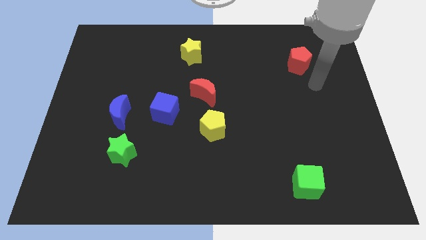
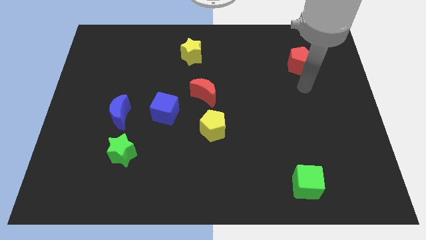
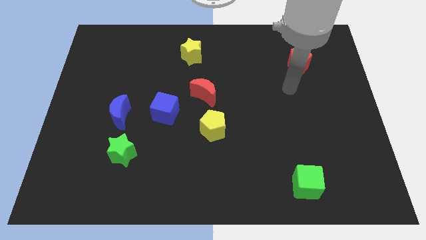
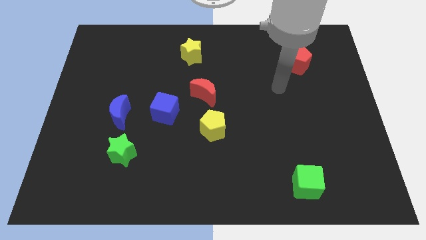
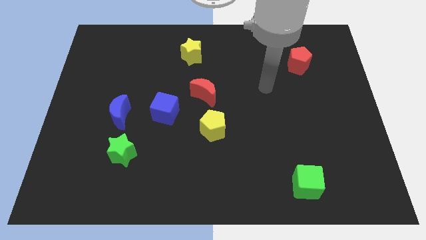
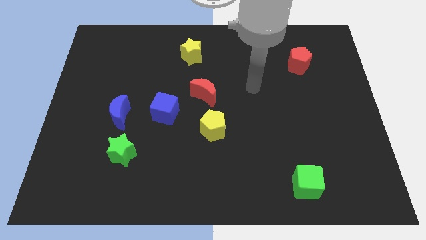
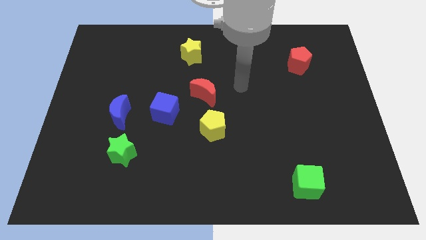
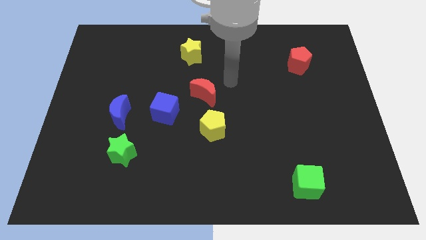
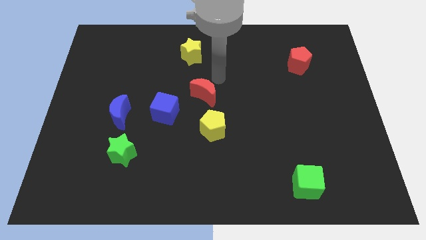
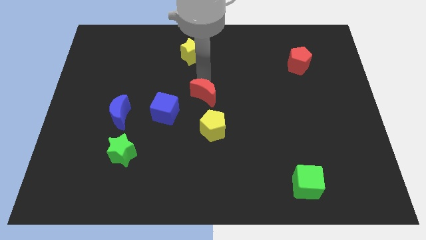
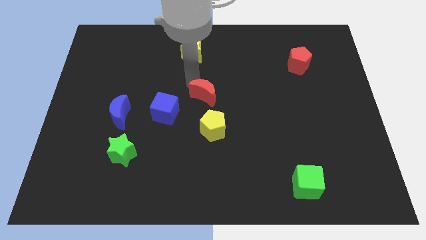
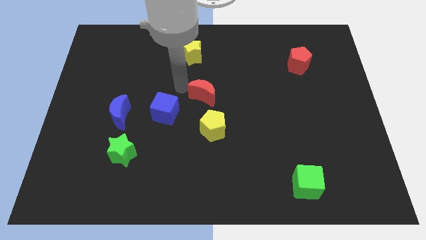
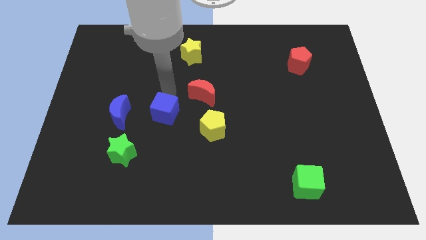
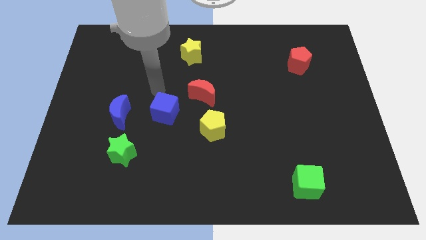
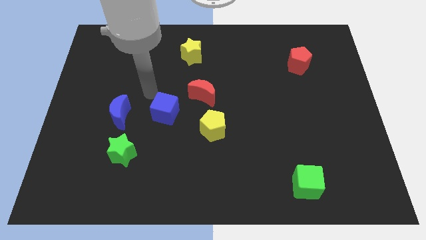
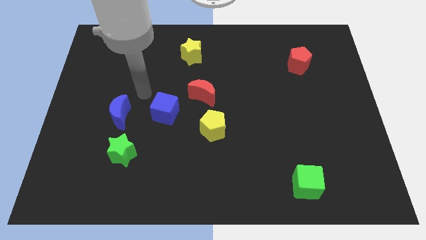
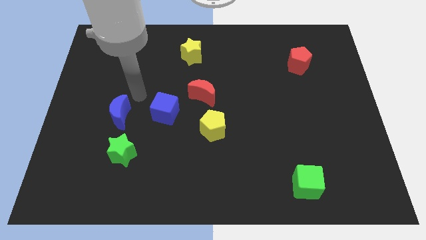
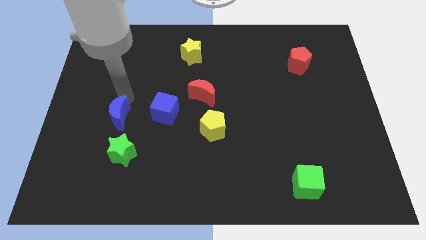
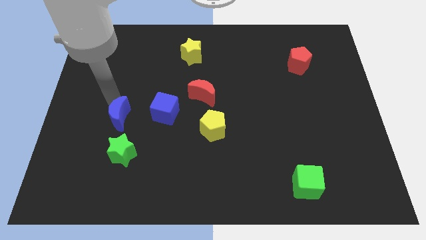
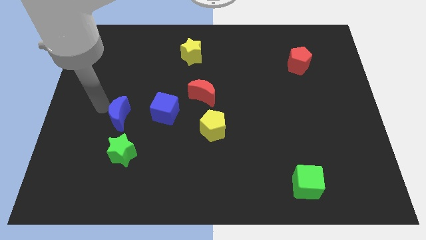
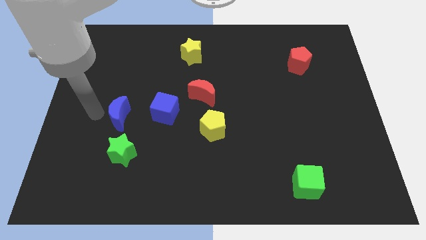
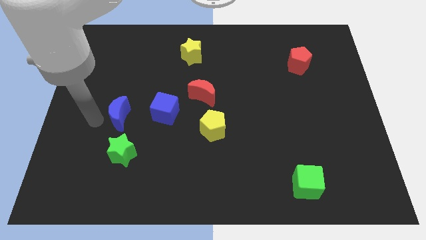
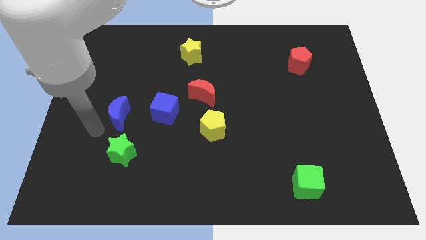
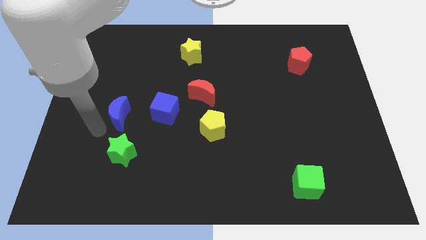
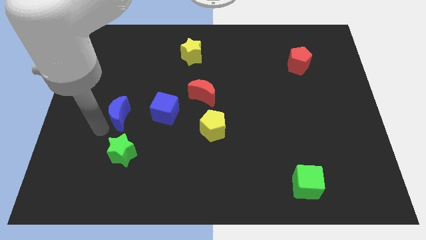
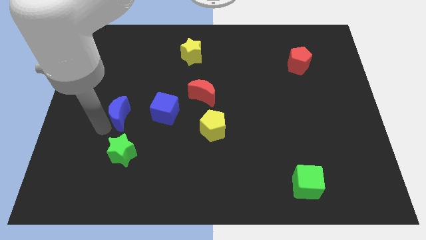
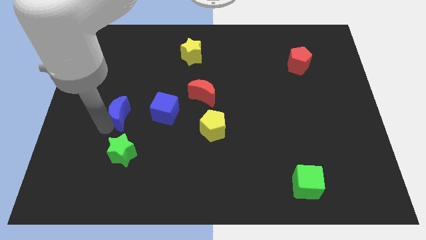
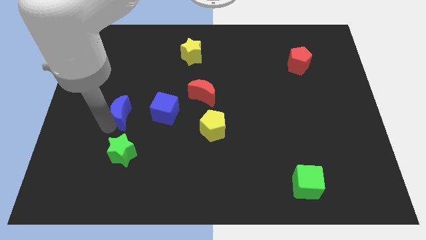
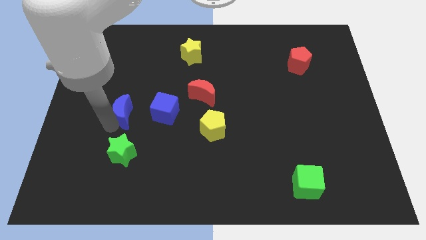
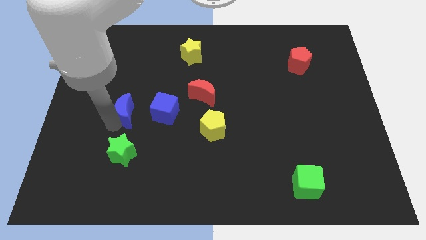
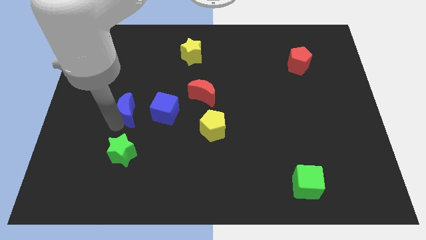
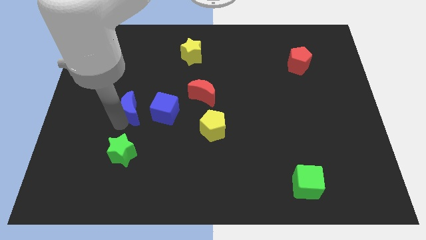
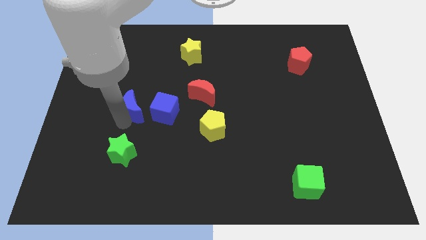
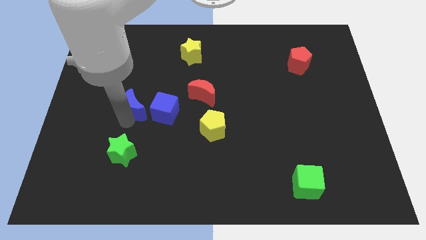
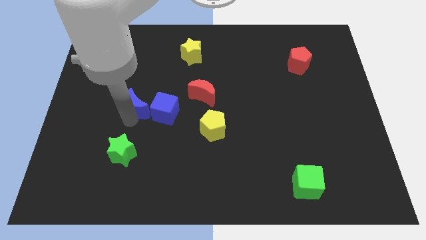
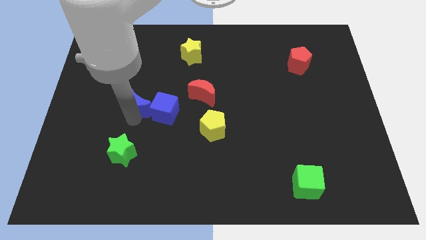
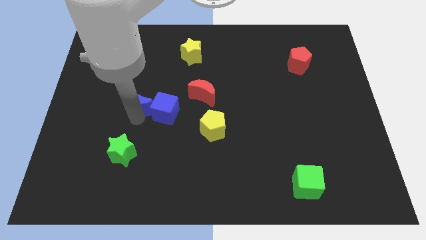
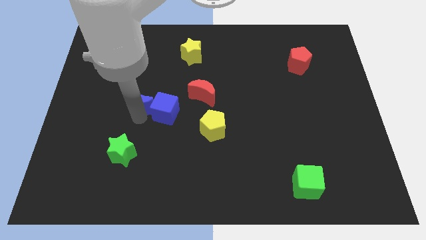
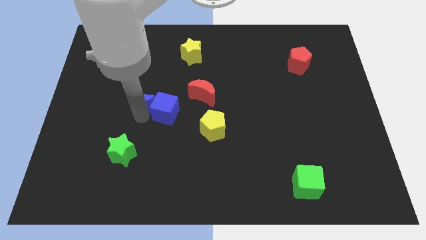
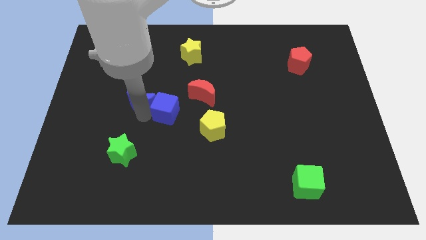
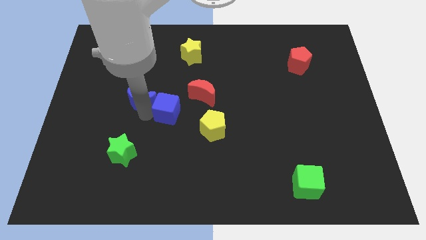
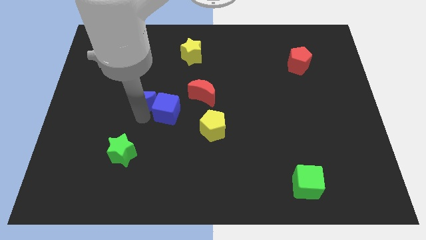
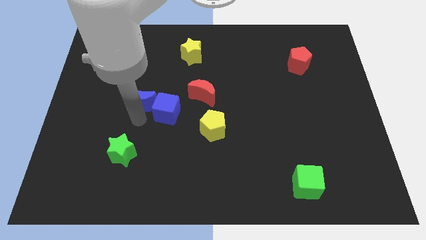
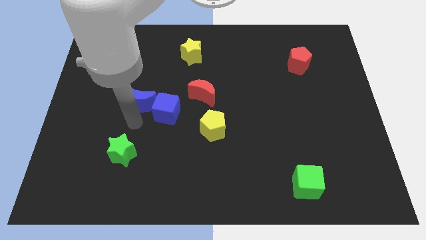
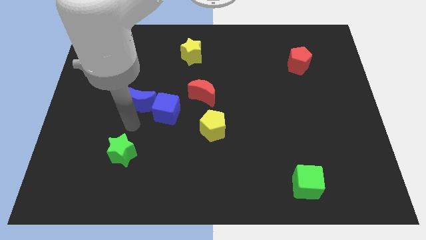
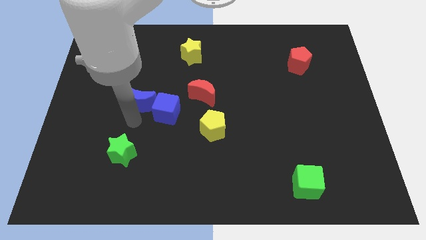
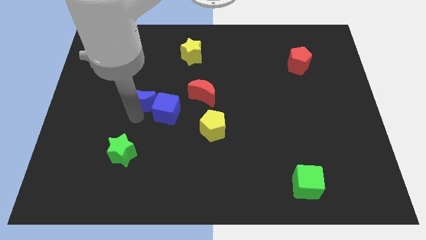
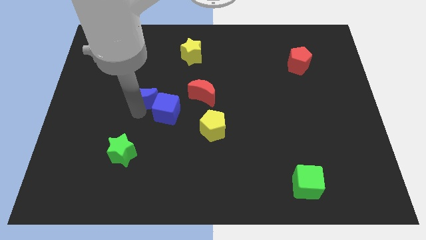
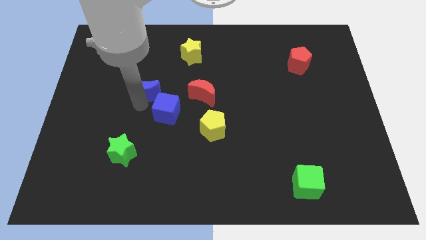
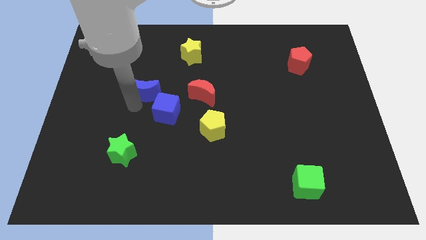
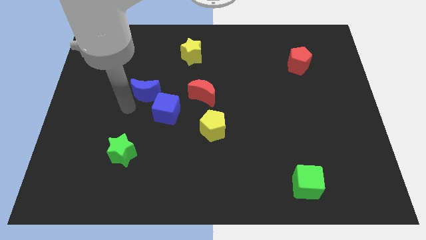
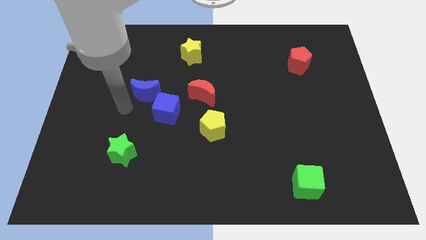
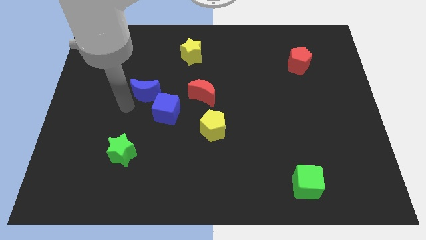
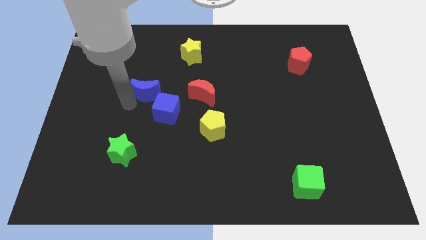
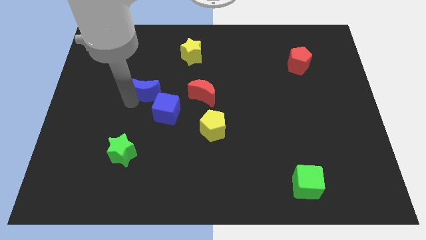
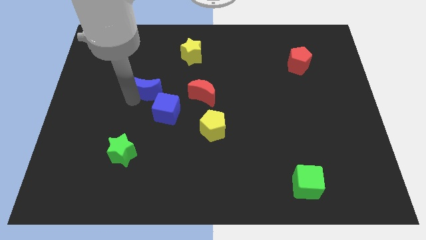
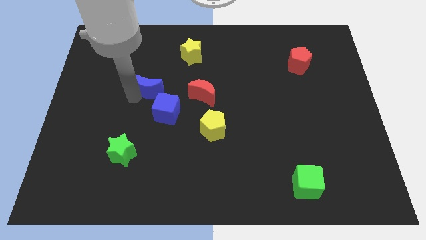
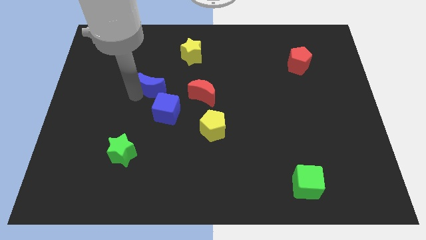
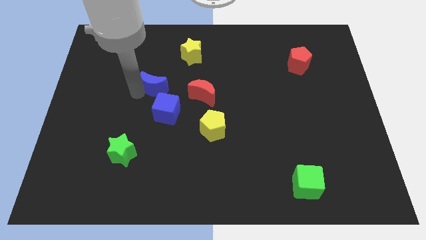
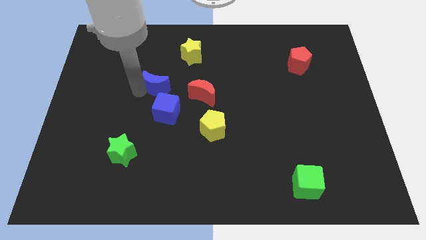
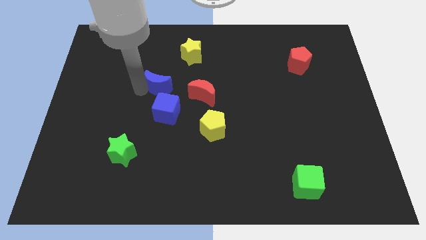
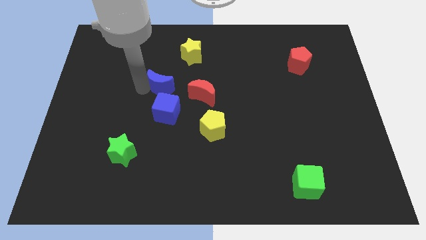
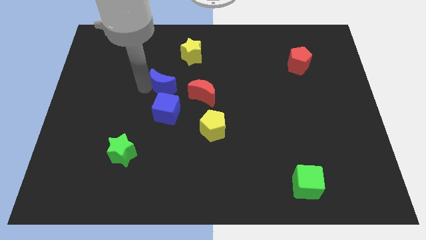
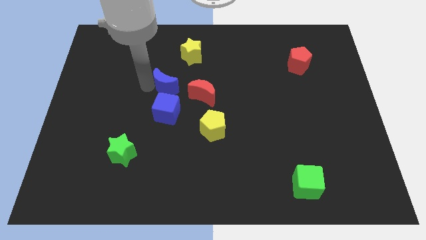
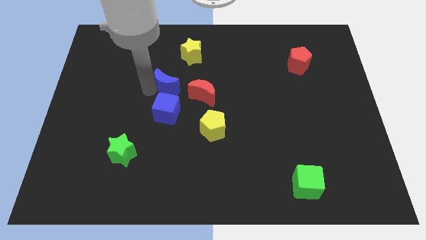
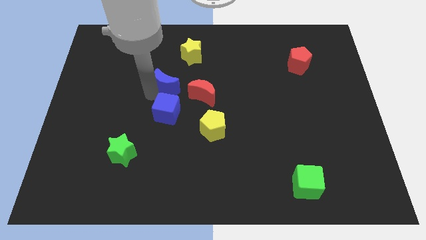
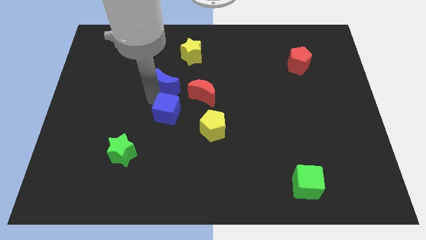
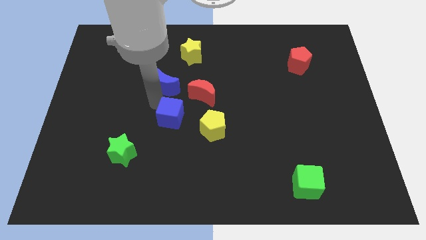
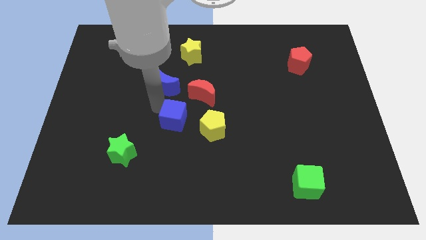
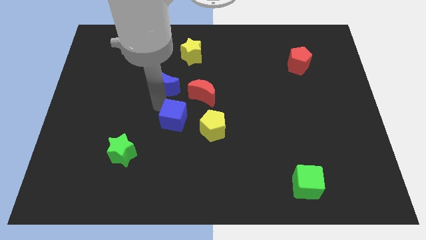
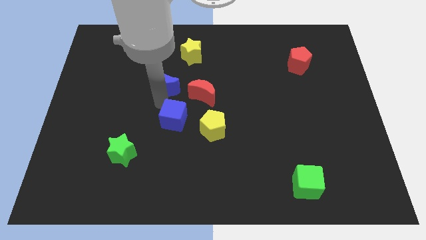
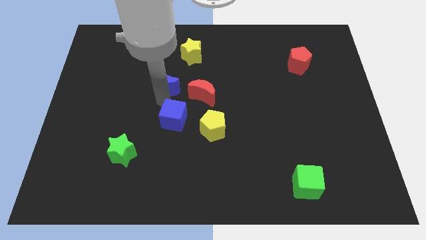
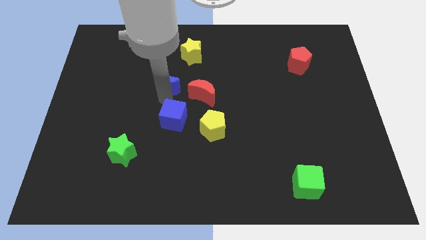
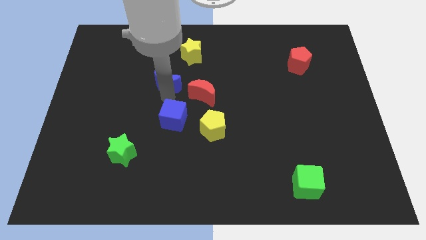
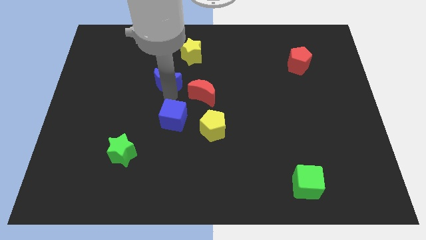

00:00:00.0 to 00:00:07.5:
put the blue moon to the bottom left of the yellow star
